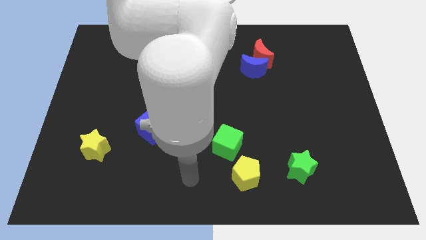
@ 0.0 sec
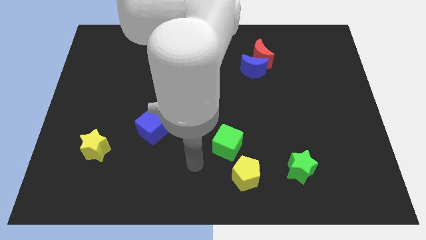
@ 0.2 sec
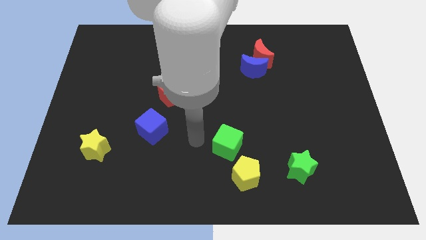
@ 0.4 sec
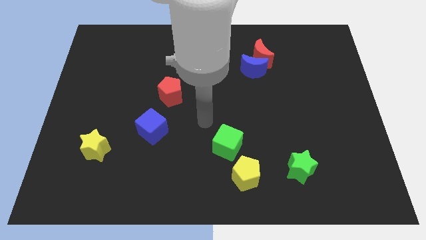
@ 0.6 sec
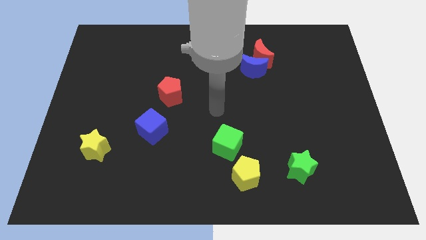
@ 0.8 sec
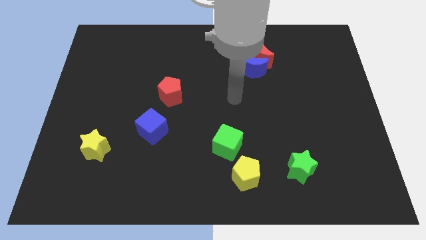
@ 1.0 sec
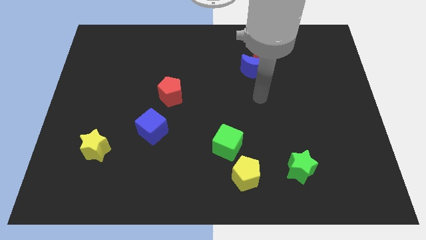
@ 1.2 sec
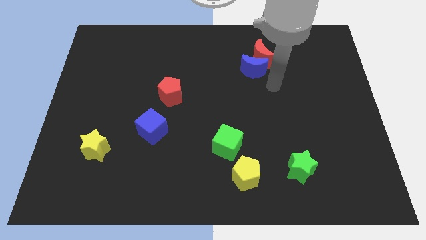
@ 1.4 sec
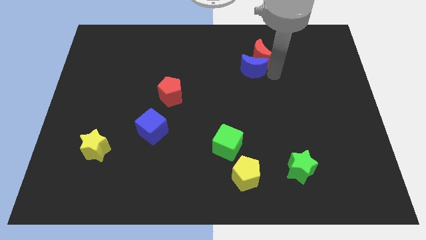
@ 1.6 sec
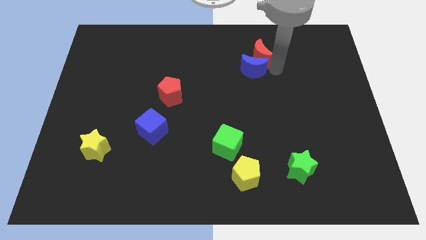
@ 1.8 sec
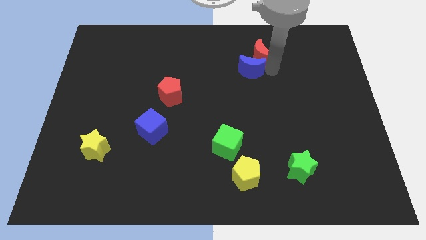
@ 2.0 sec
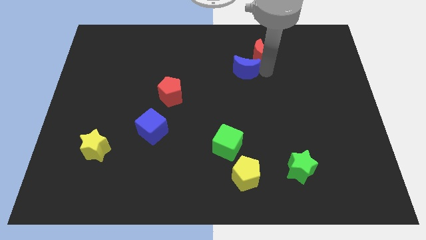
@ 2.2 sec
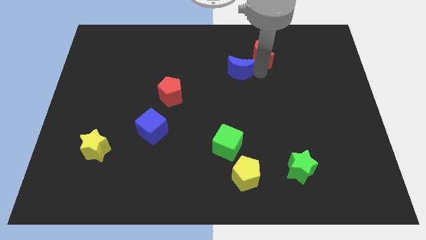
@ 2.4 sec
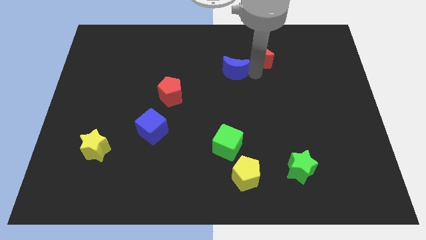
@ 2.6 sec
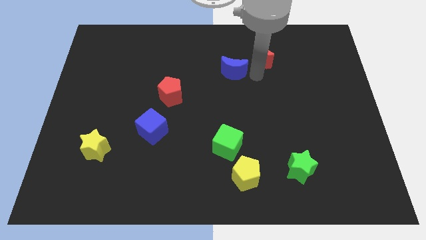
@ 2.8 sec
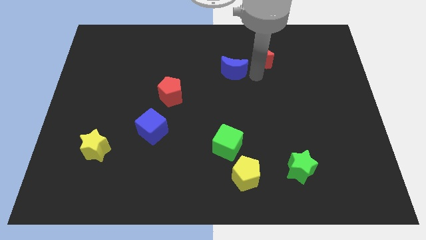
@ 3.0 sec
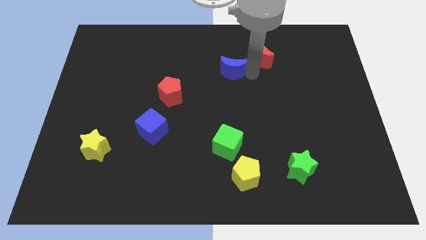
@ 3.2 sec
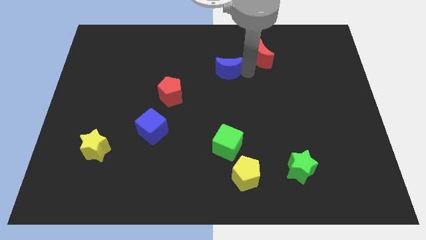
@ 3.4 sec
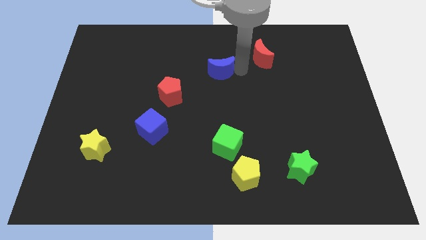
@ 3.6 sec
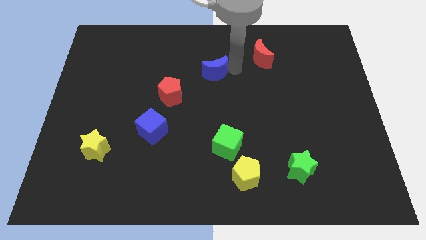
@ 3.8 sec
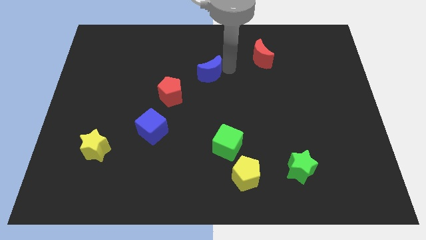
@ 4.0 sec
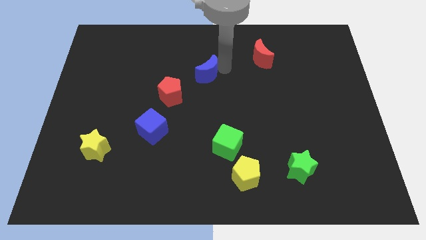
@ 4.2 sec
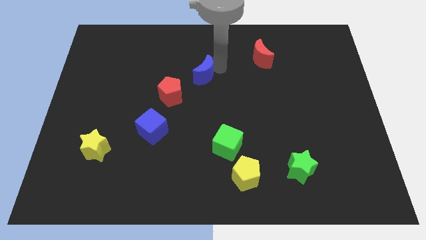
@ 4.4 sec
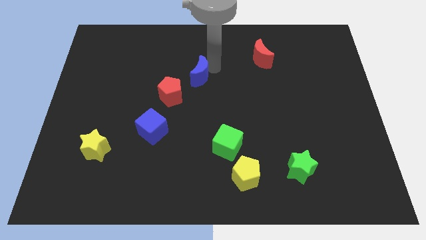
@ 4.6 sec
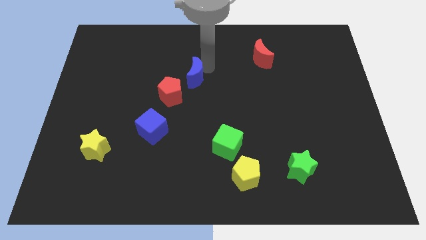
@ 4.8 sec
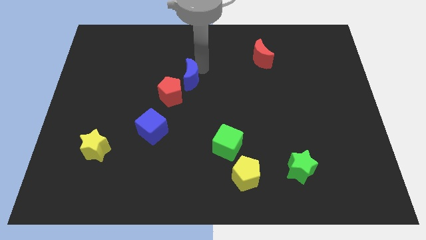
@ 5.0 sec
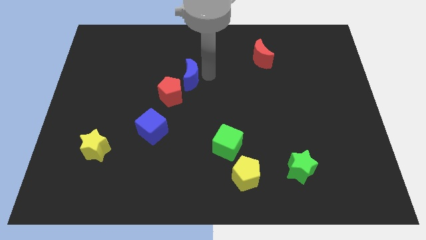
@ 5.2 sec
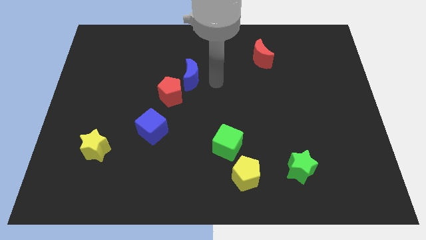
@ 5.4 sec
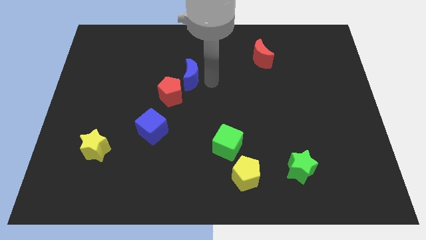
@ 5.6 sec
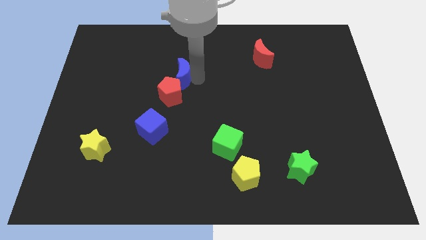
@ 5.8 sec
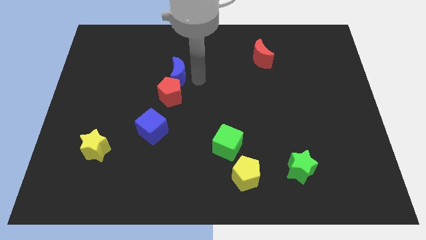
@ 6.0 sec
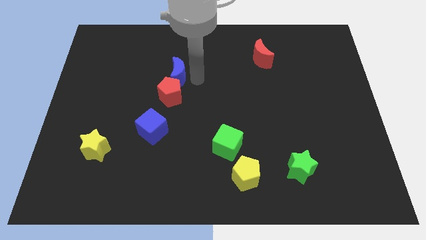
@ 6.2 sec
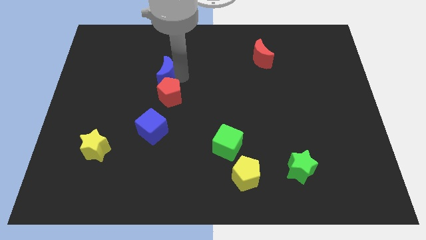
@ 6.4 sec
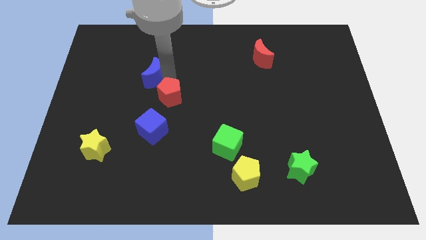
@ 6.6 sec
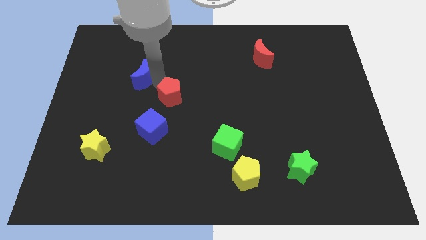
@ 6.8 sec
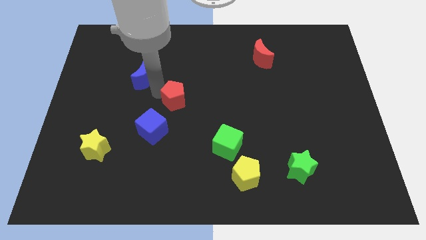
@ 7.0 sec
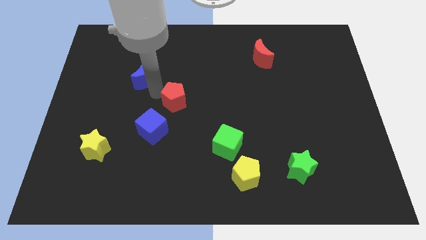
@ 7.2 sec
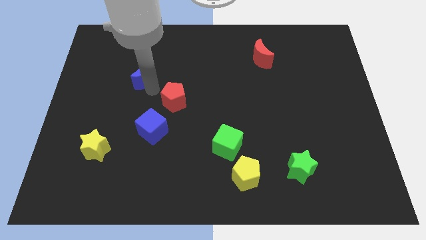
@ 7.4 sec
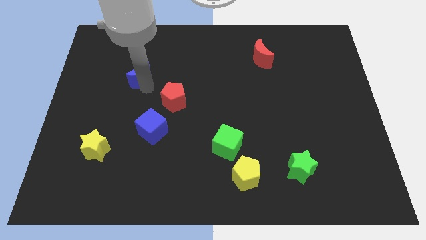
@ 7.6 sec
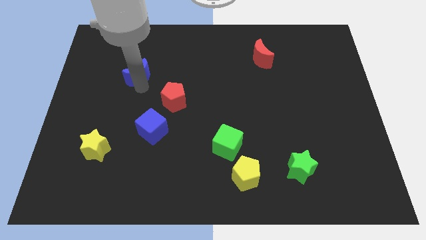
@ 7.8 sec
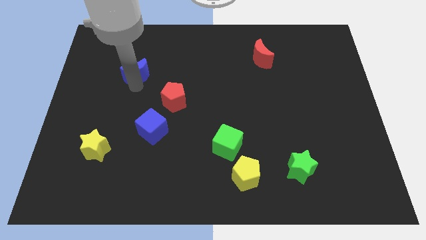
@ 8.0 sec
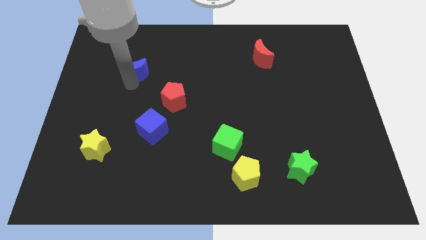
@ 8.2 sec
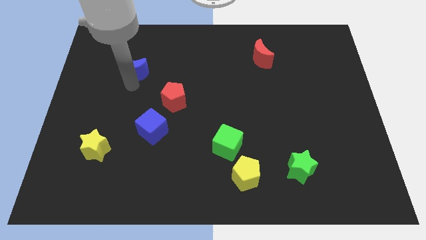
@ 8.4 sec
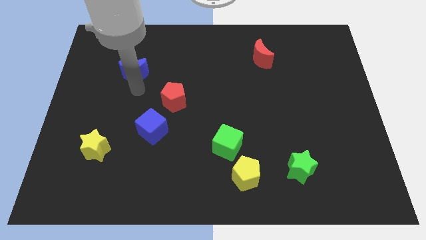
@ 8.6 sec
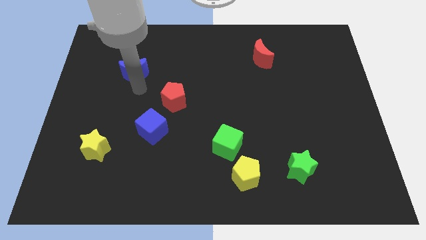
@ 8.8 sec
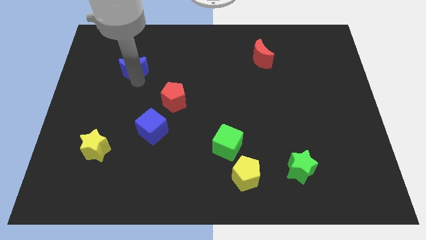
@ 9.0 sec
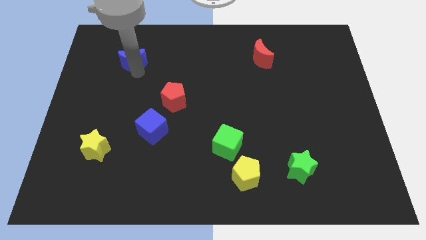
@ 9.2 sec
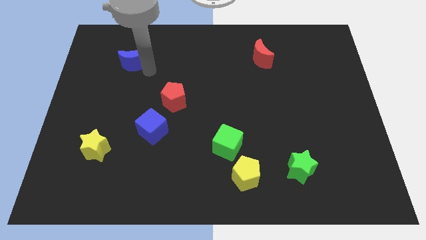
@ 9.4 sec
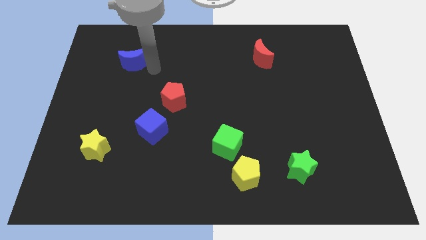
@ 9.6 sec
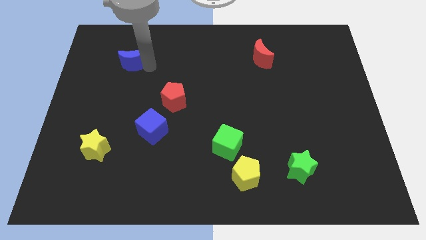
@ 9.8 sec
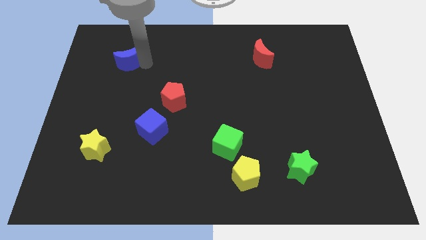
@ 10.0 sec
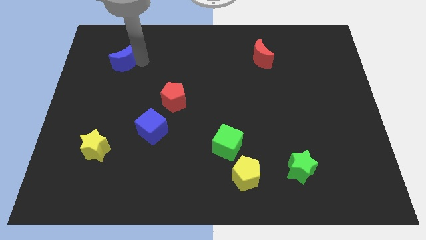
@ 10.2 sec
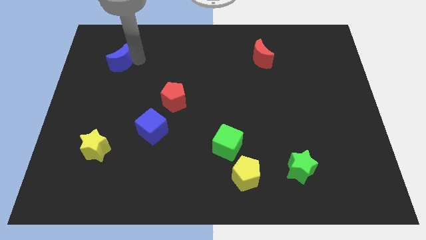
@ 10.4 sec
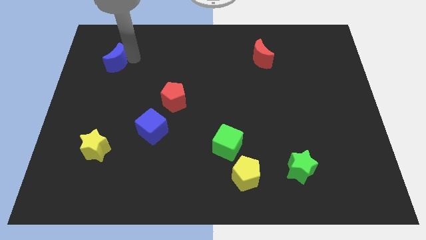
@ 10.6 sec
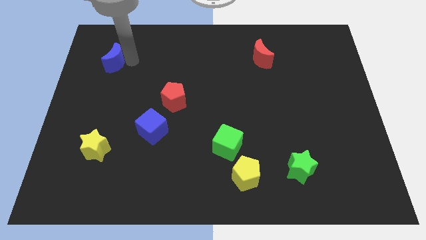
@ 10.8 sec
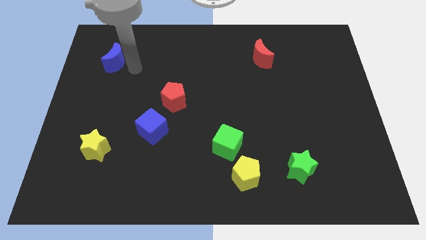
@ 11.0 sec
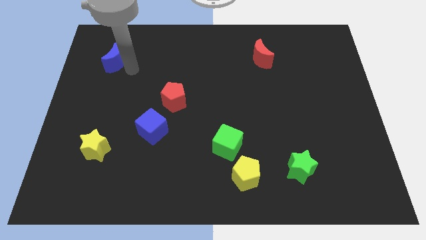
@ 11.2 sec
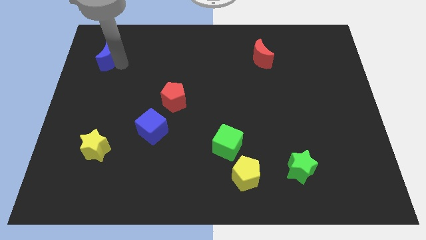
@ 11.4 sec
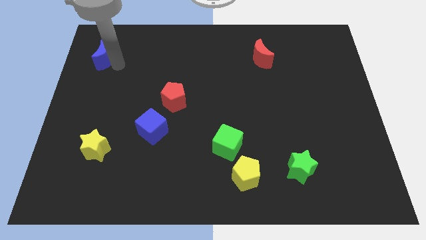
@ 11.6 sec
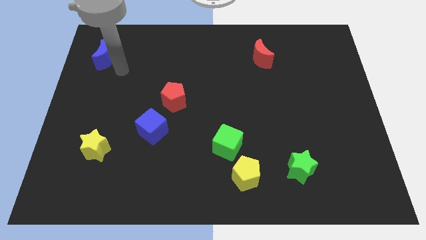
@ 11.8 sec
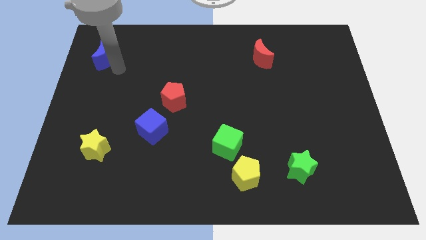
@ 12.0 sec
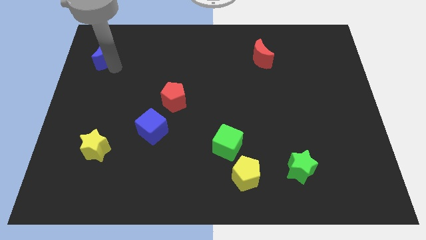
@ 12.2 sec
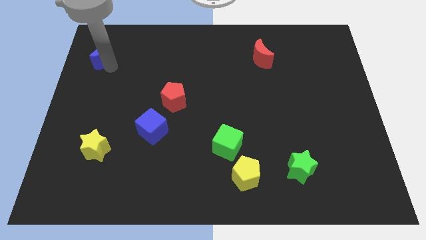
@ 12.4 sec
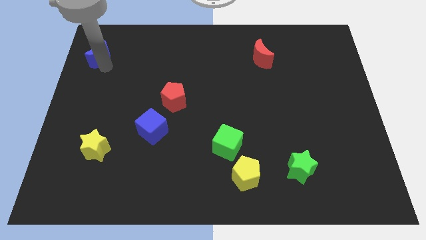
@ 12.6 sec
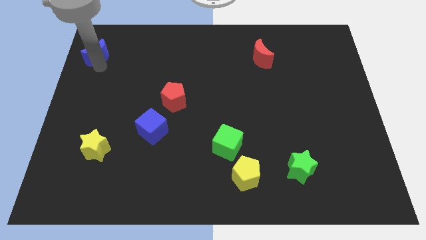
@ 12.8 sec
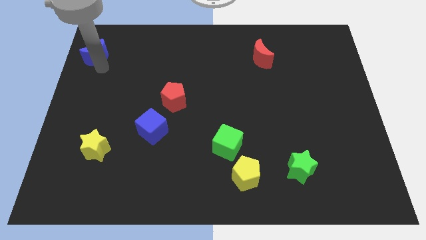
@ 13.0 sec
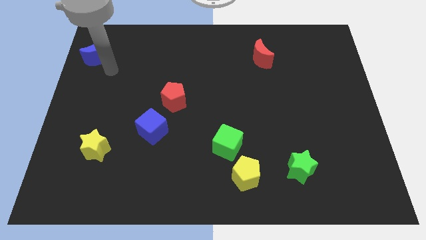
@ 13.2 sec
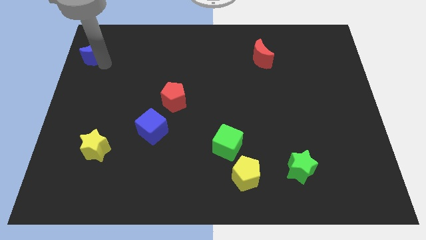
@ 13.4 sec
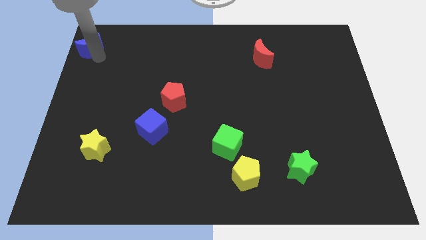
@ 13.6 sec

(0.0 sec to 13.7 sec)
slide the blue moon to the top left
